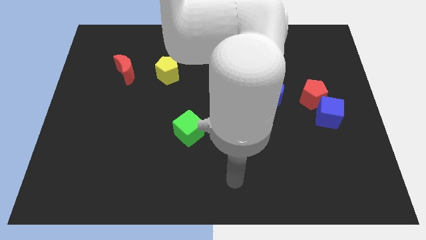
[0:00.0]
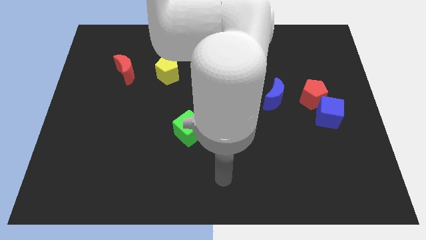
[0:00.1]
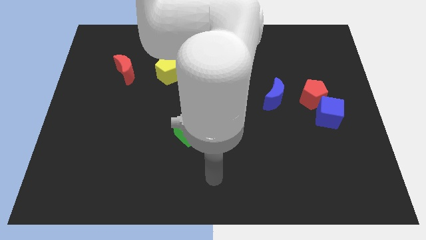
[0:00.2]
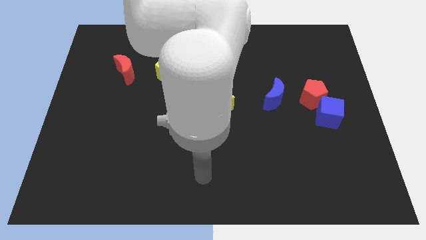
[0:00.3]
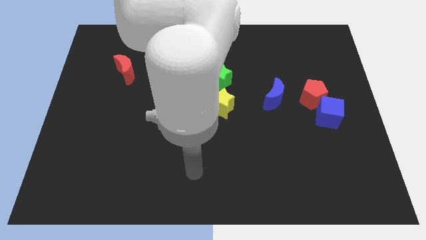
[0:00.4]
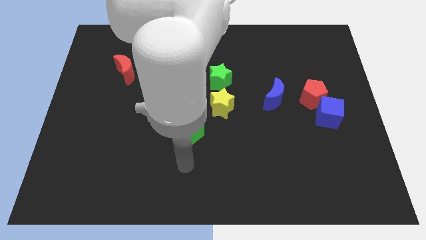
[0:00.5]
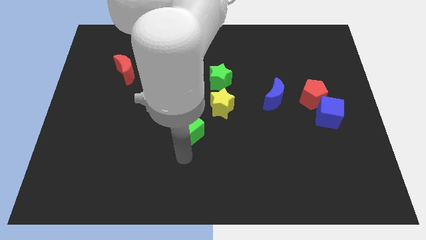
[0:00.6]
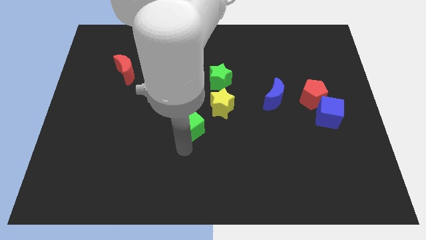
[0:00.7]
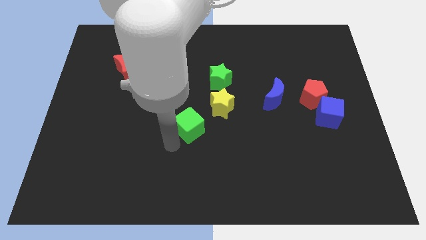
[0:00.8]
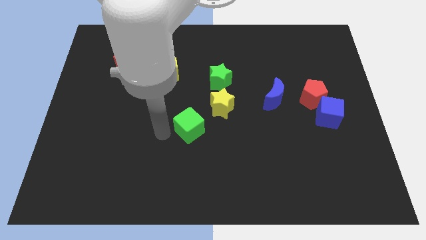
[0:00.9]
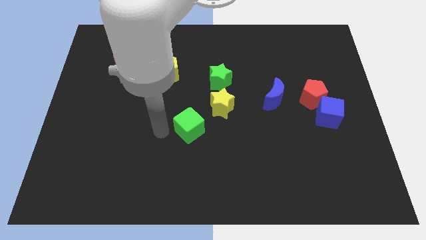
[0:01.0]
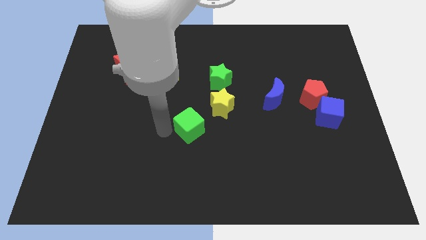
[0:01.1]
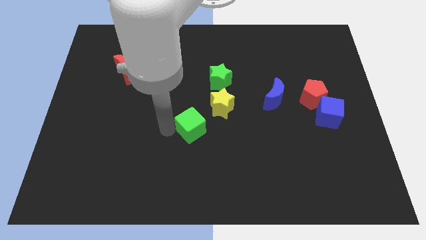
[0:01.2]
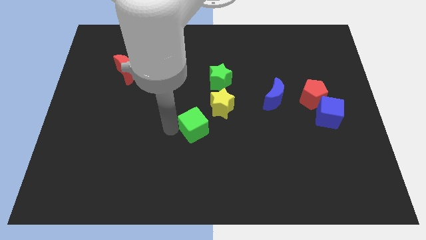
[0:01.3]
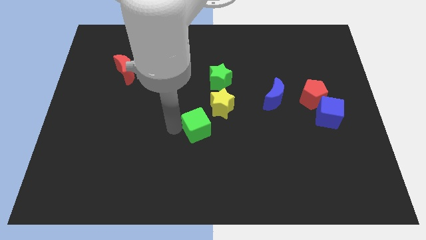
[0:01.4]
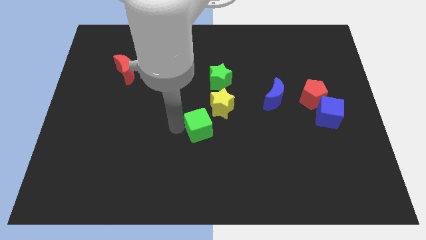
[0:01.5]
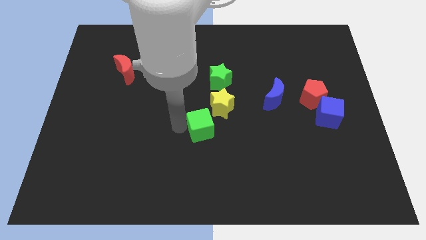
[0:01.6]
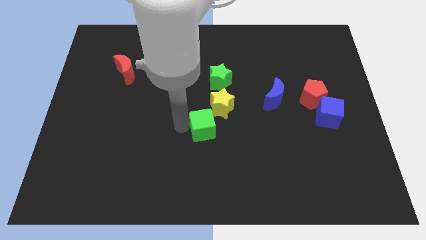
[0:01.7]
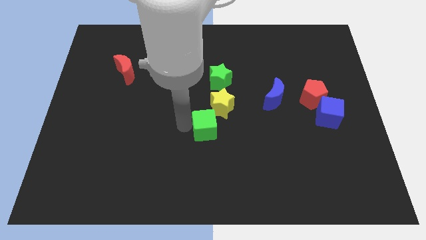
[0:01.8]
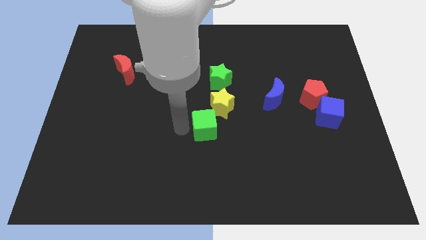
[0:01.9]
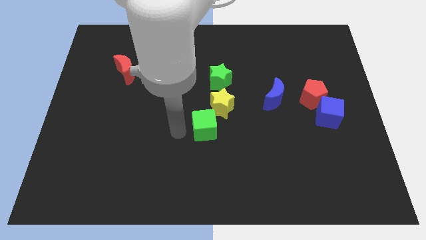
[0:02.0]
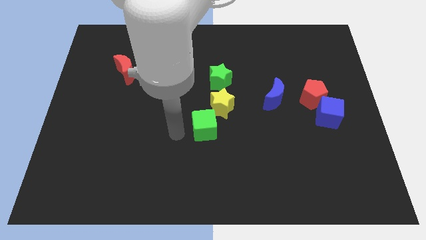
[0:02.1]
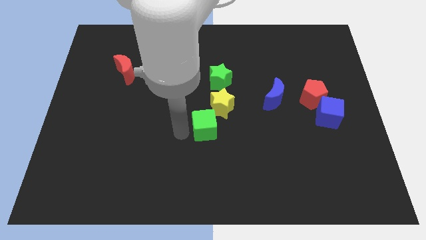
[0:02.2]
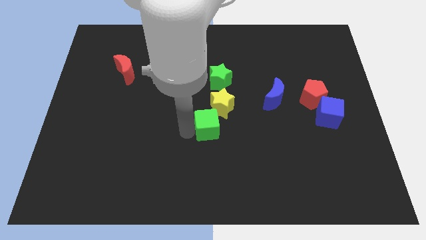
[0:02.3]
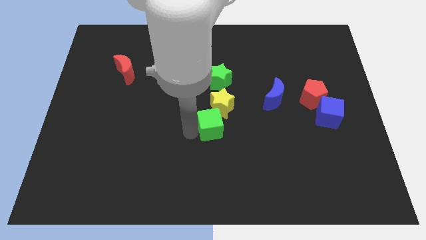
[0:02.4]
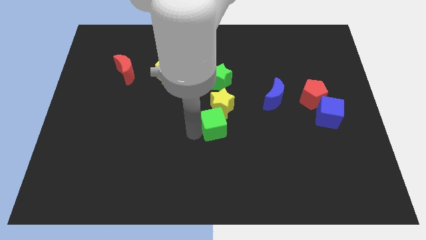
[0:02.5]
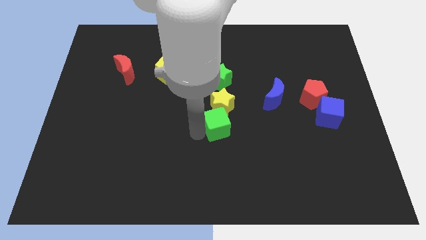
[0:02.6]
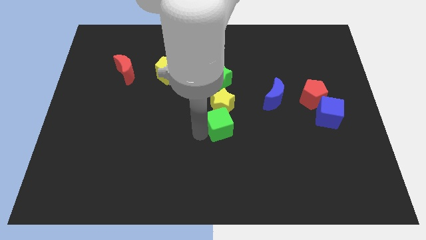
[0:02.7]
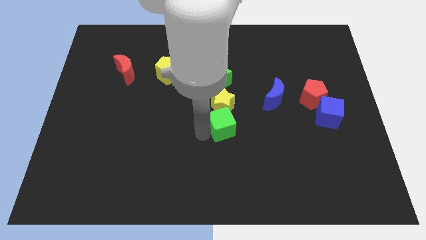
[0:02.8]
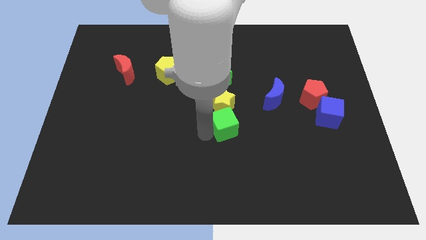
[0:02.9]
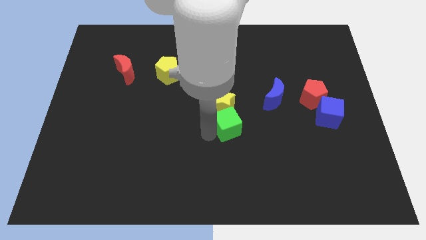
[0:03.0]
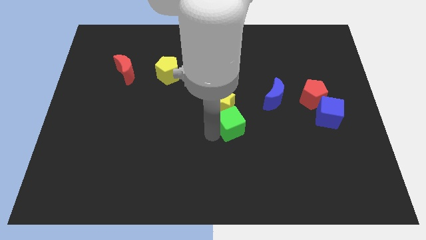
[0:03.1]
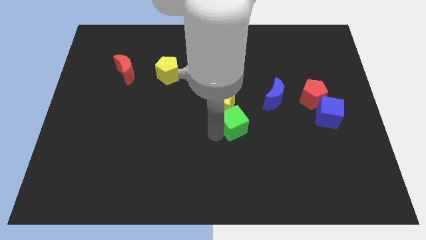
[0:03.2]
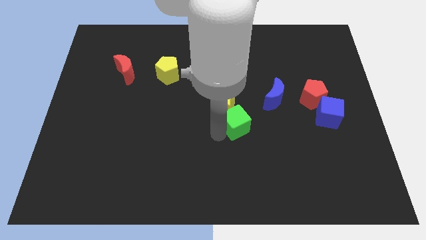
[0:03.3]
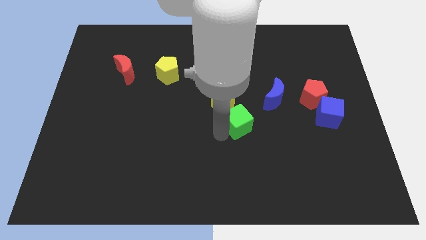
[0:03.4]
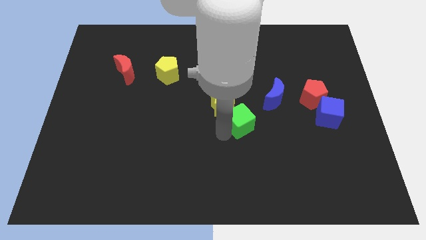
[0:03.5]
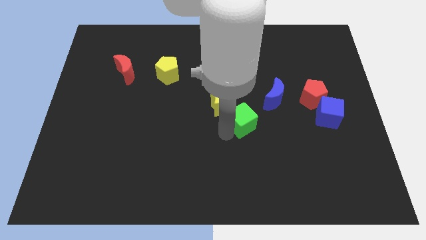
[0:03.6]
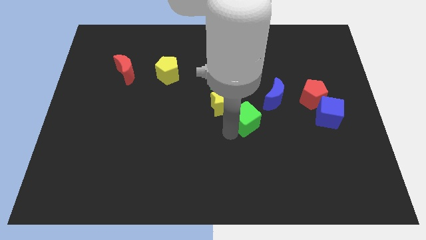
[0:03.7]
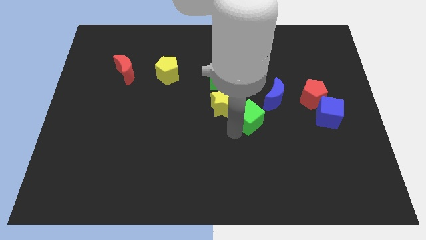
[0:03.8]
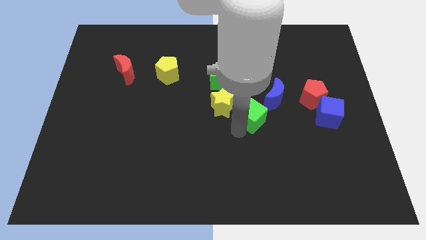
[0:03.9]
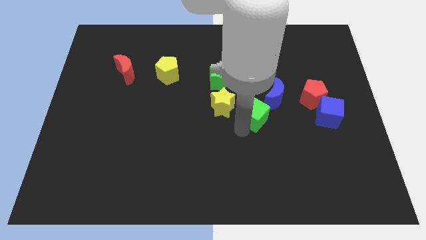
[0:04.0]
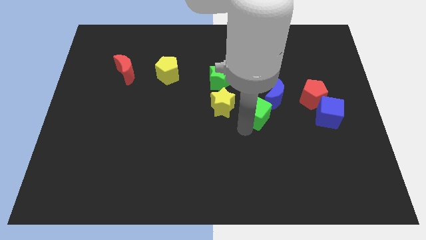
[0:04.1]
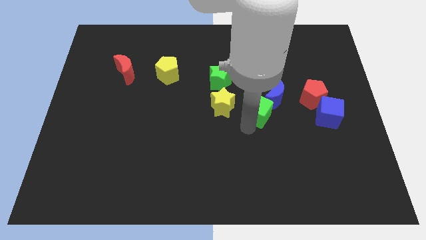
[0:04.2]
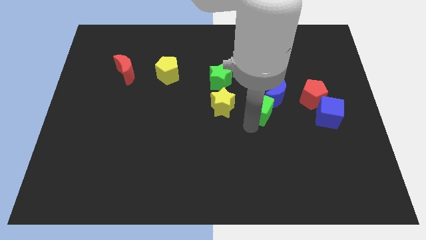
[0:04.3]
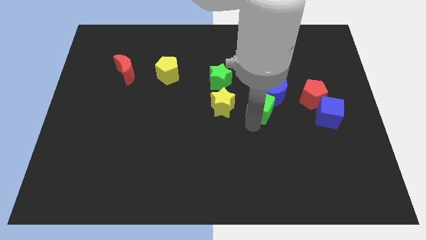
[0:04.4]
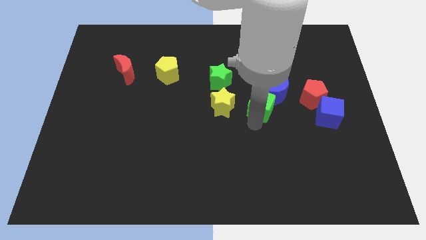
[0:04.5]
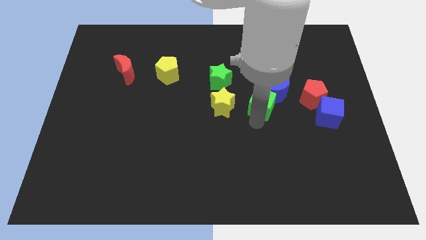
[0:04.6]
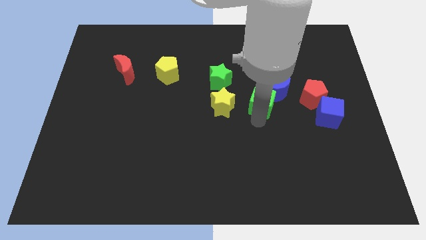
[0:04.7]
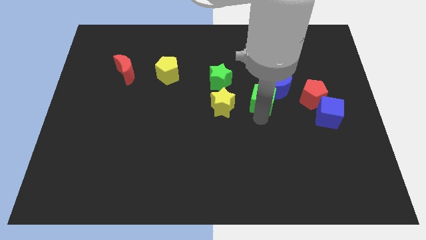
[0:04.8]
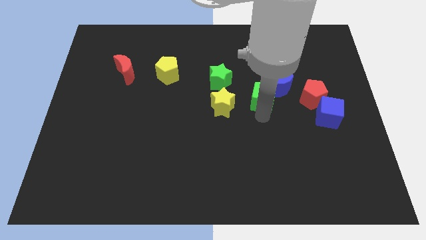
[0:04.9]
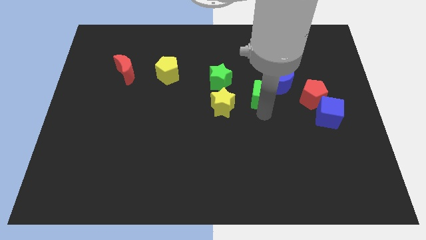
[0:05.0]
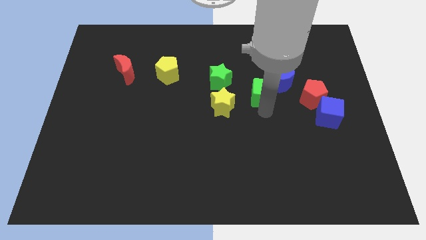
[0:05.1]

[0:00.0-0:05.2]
push the green cube to the right of the green star

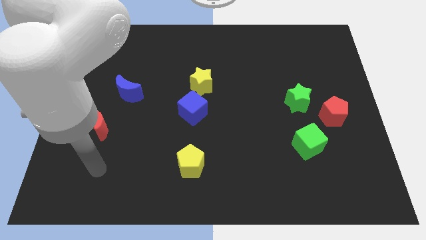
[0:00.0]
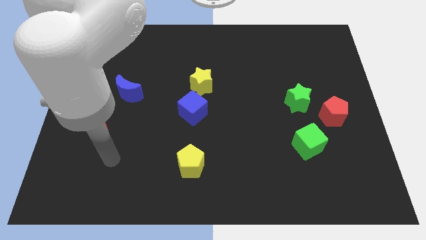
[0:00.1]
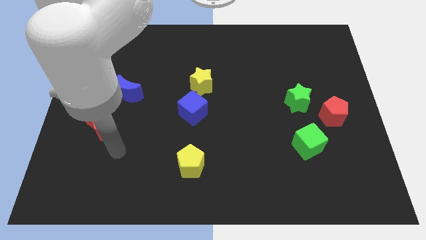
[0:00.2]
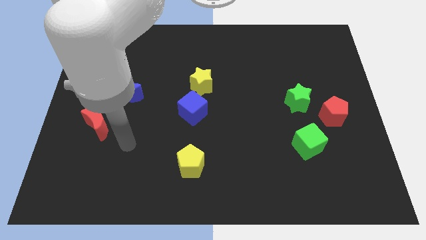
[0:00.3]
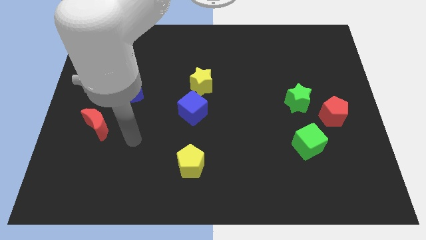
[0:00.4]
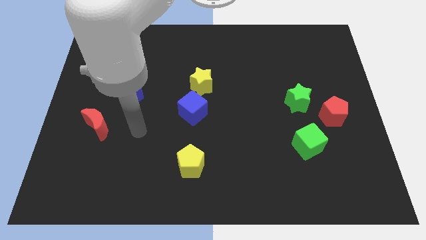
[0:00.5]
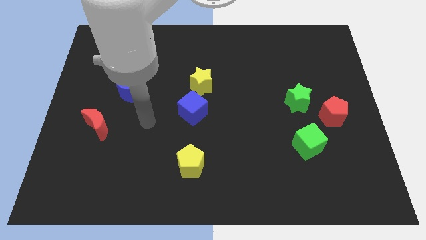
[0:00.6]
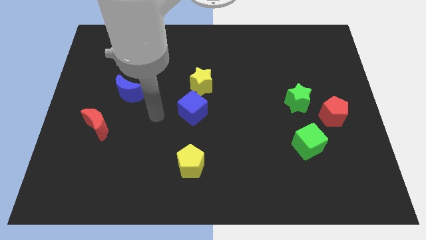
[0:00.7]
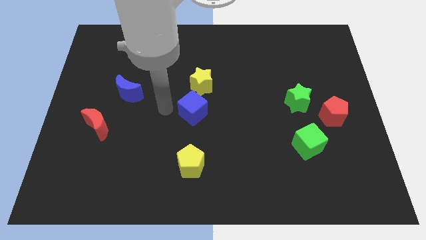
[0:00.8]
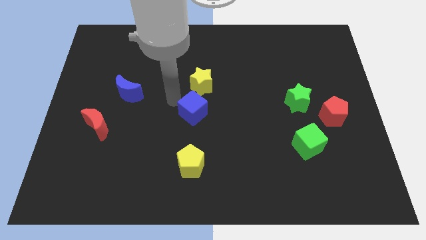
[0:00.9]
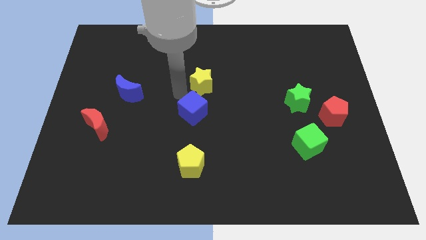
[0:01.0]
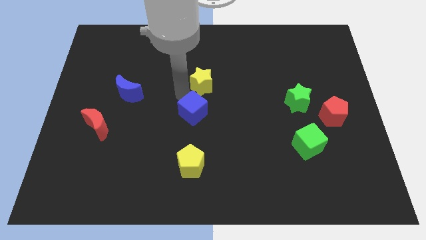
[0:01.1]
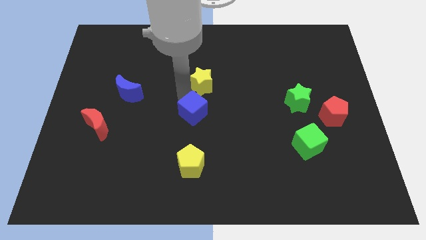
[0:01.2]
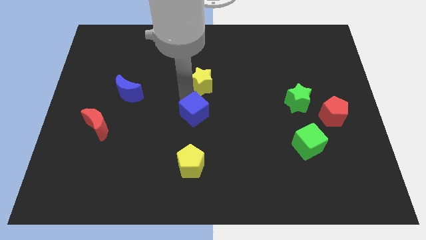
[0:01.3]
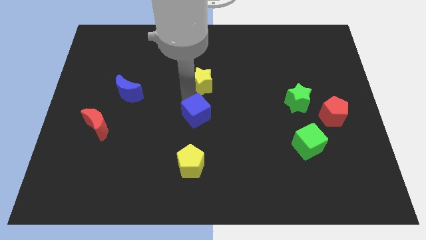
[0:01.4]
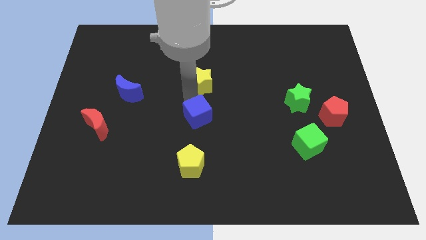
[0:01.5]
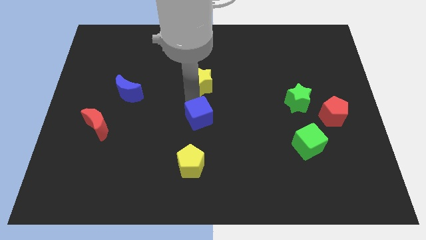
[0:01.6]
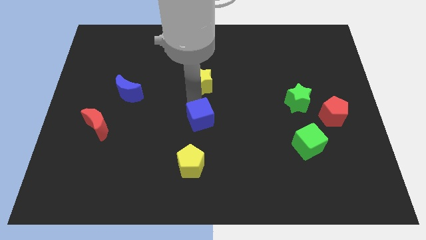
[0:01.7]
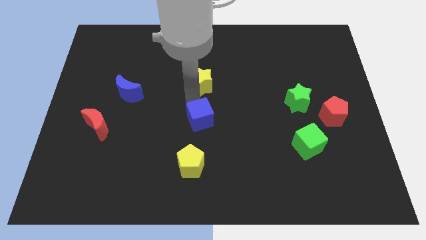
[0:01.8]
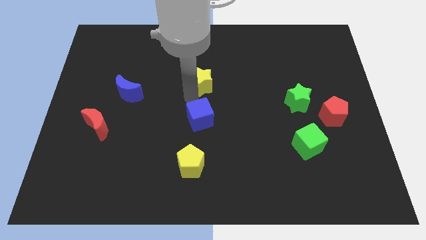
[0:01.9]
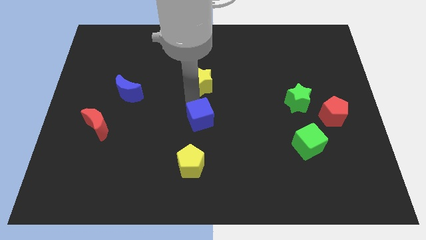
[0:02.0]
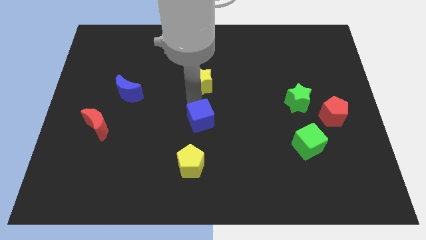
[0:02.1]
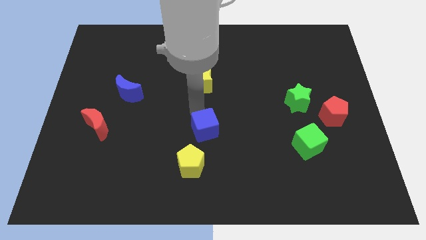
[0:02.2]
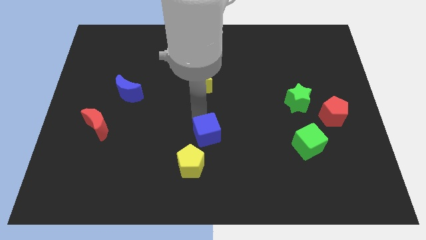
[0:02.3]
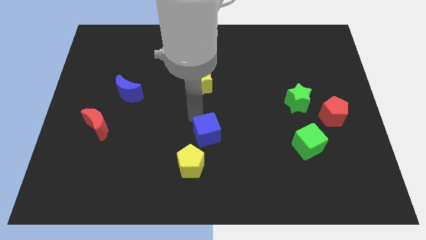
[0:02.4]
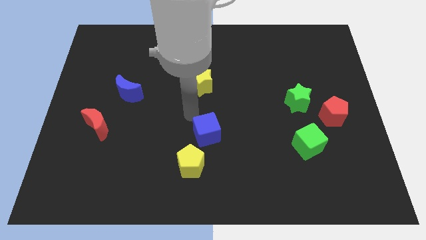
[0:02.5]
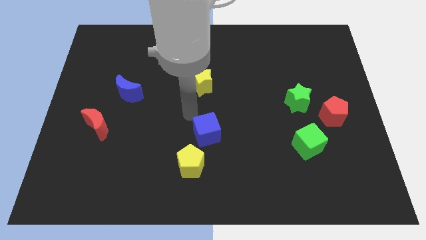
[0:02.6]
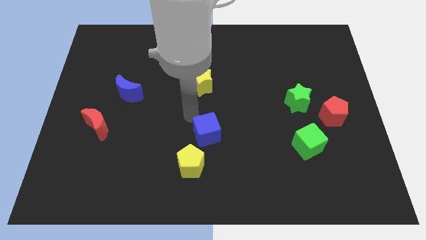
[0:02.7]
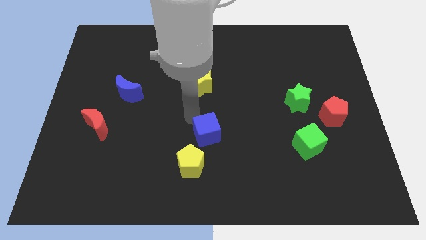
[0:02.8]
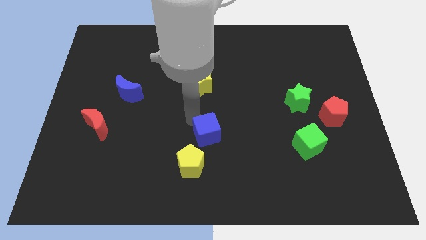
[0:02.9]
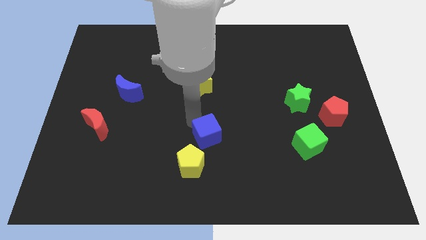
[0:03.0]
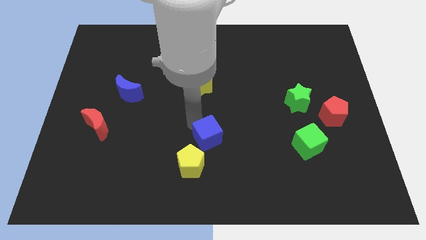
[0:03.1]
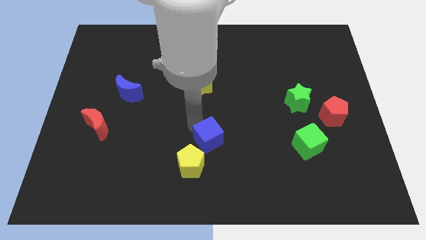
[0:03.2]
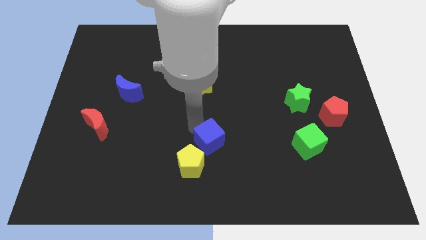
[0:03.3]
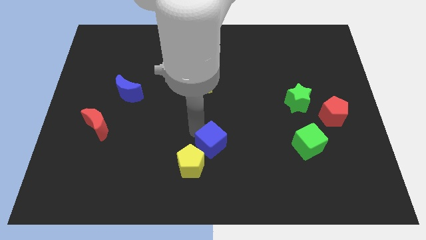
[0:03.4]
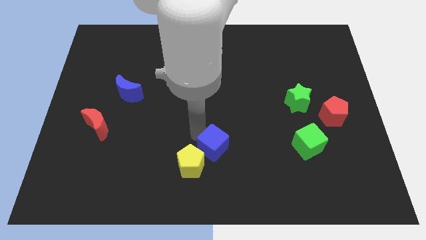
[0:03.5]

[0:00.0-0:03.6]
push the blue cube right of the yellow pentagon
